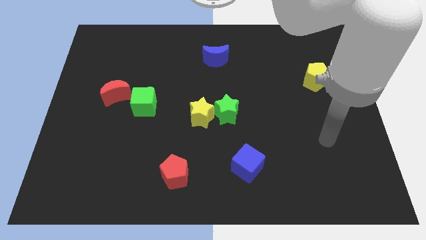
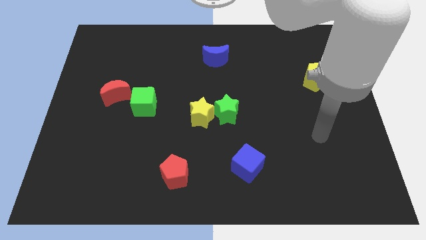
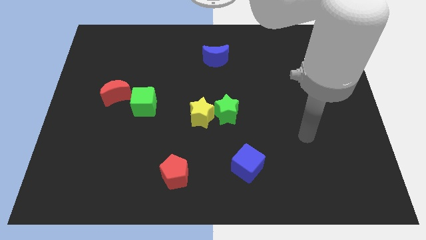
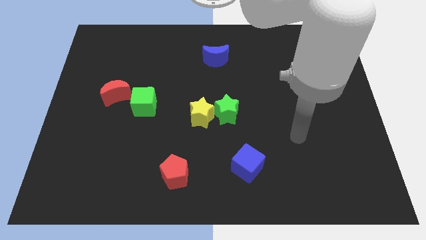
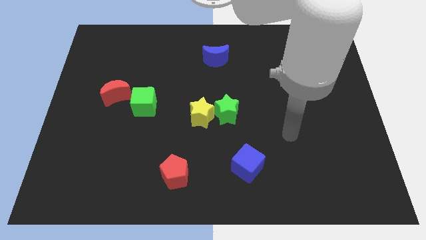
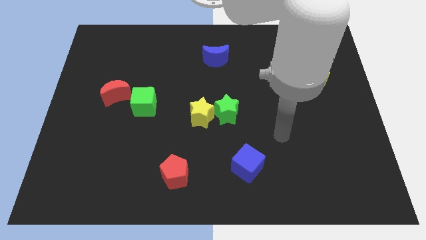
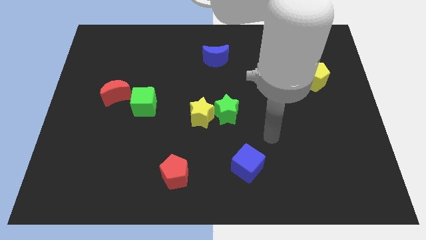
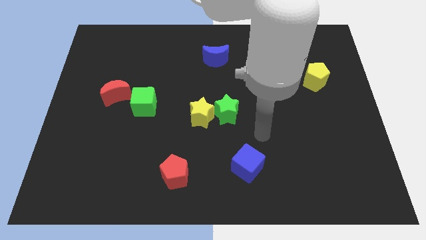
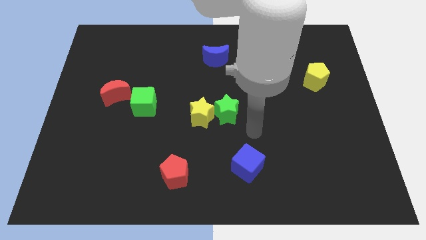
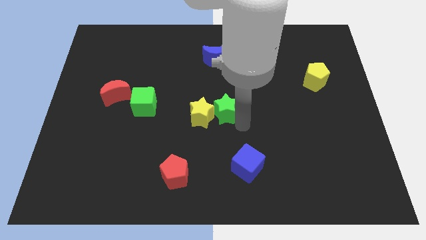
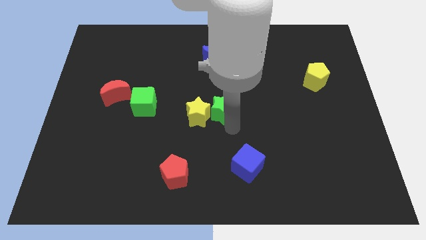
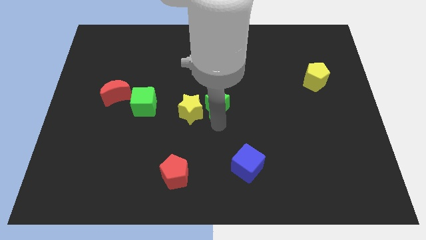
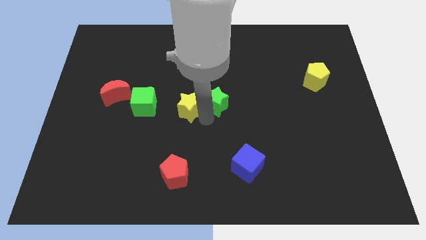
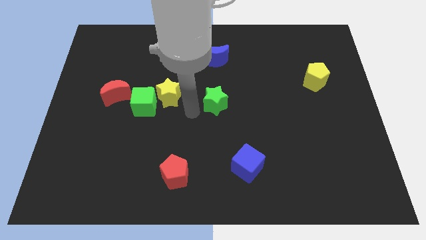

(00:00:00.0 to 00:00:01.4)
separate the green star from the yellow star

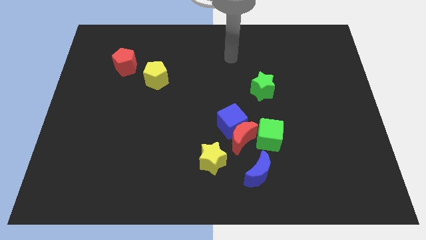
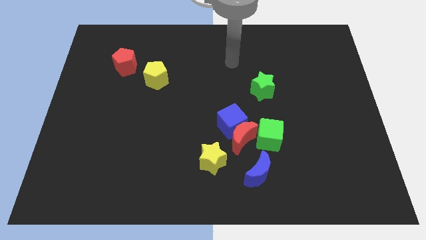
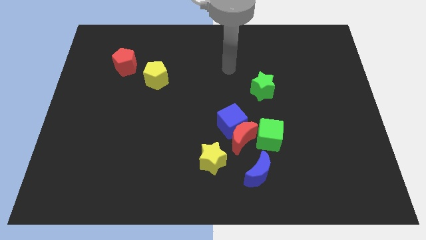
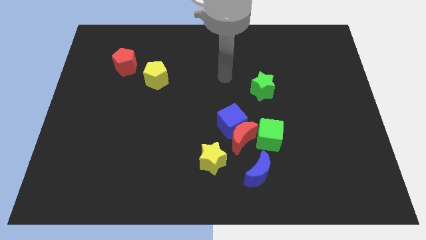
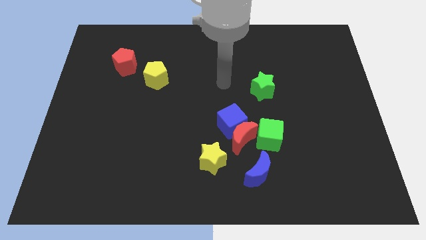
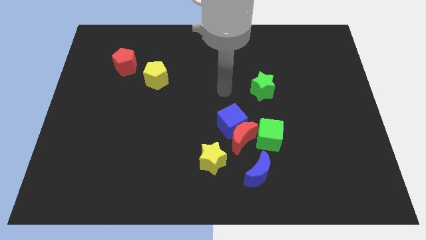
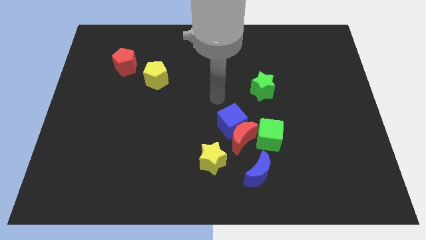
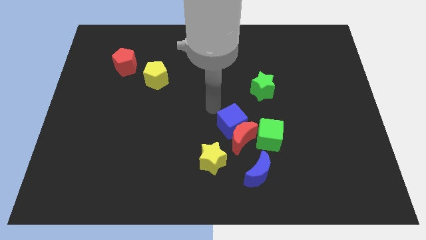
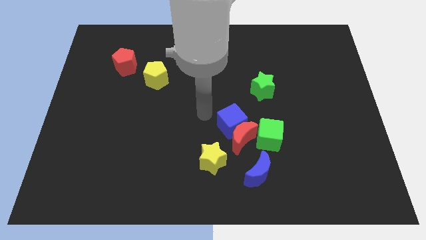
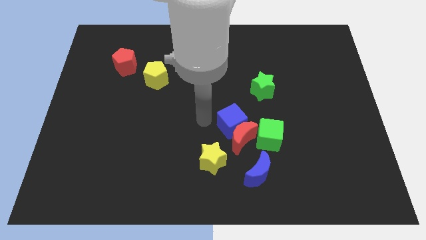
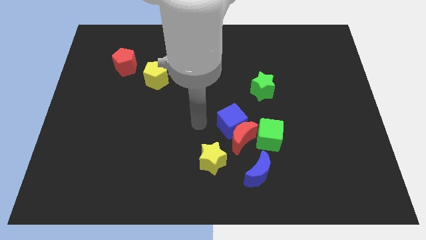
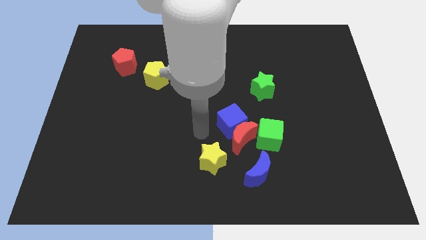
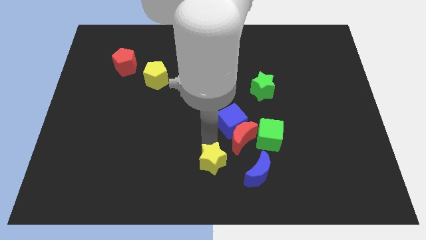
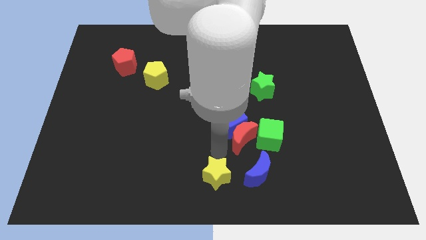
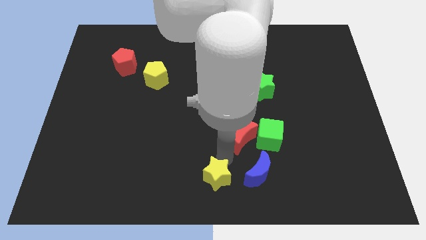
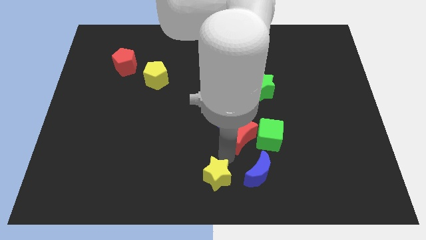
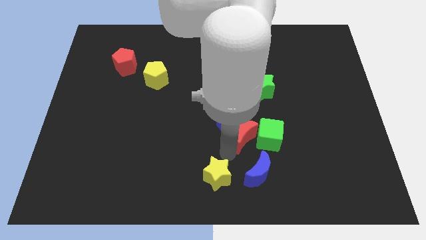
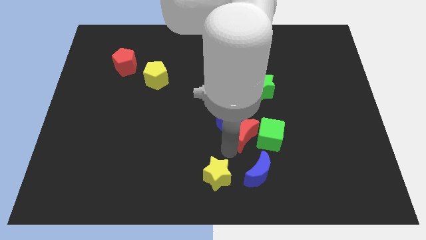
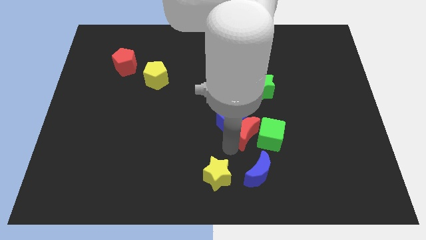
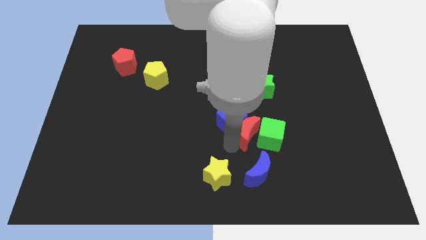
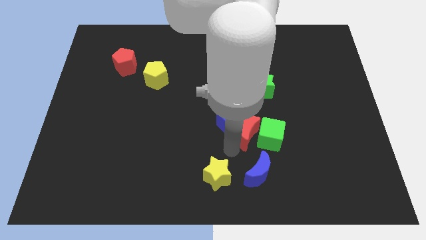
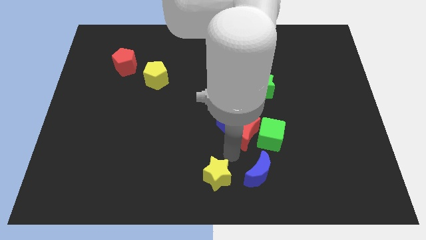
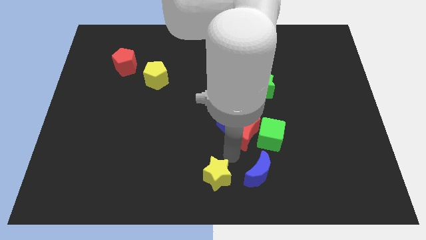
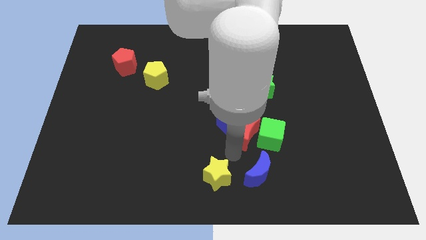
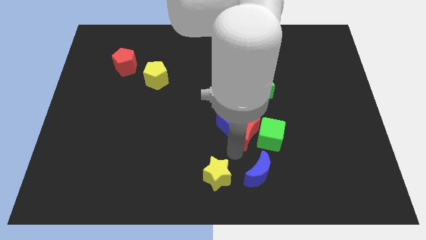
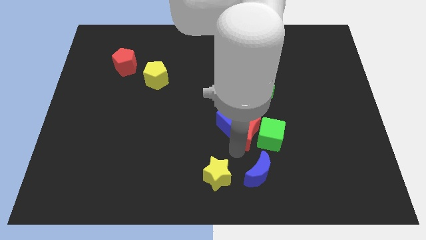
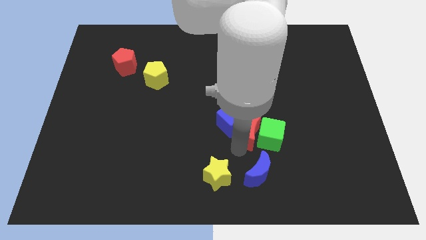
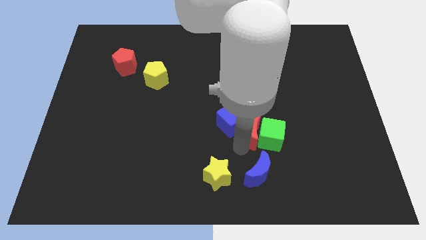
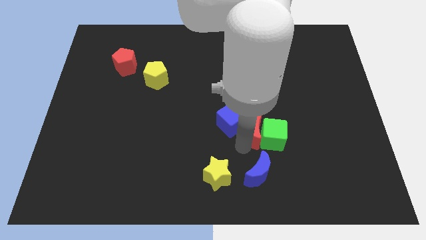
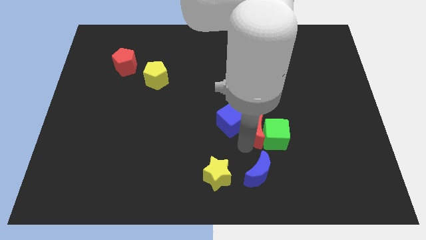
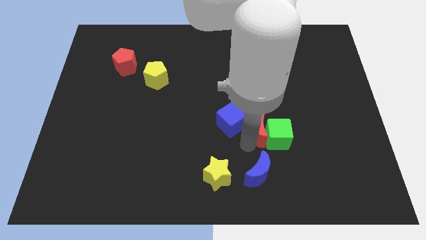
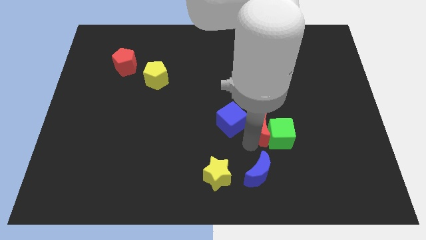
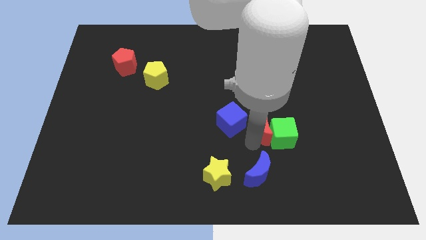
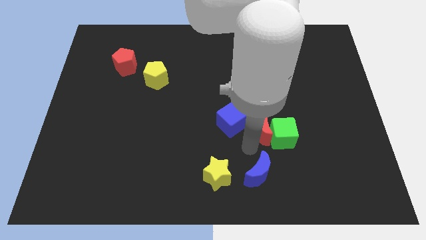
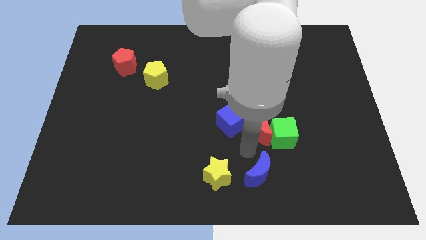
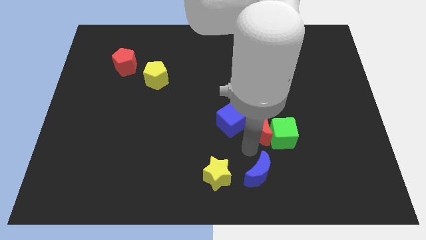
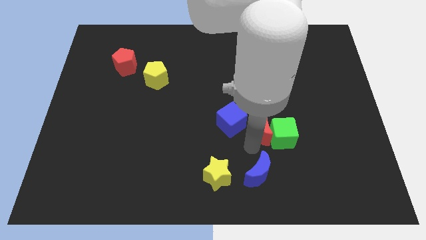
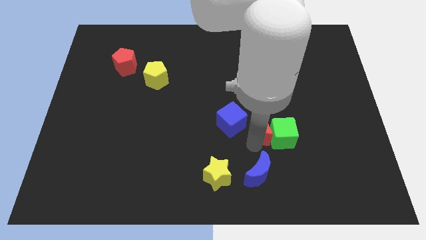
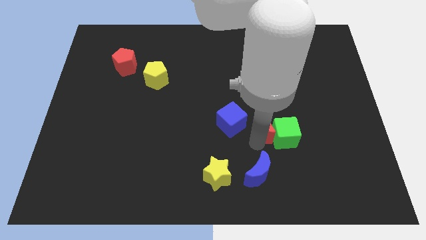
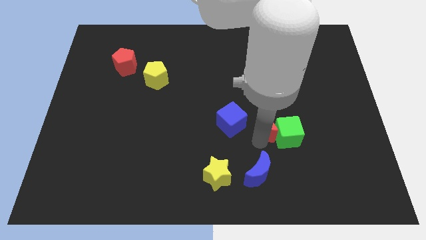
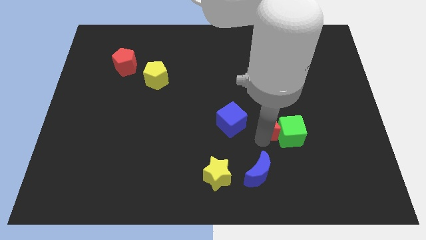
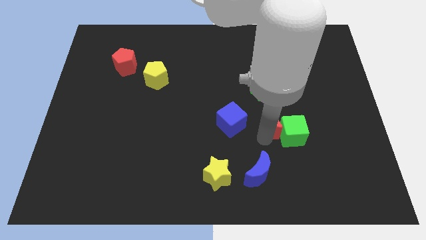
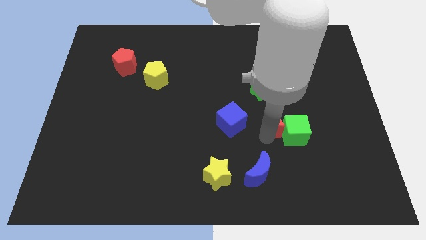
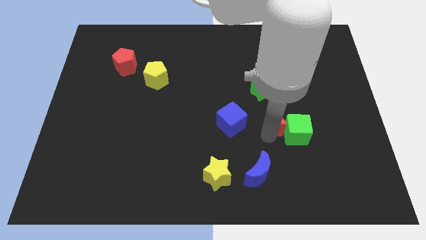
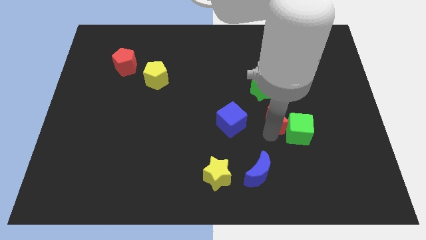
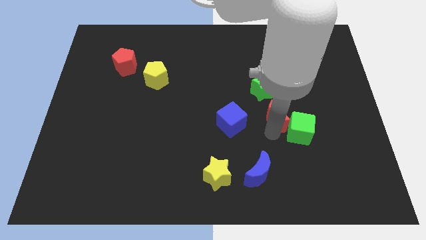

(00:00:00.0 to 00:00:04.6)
pull the red moon apart from the group

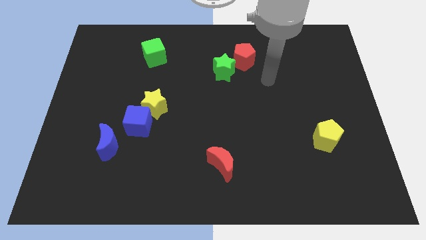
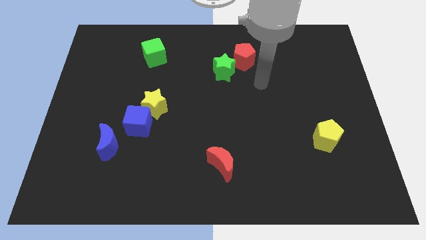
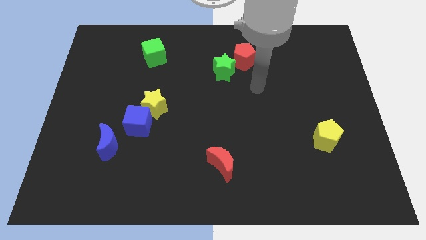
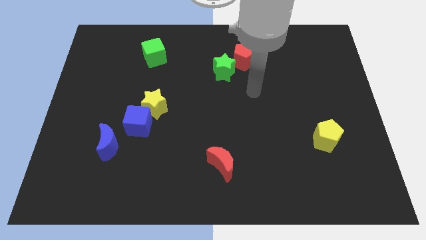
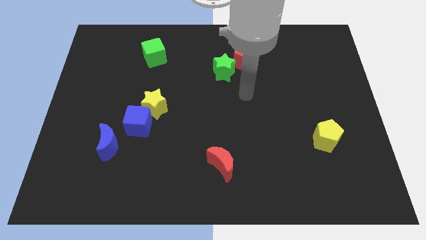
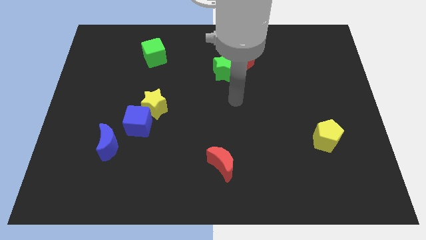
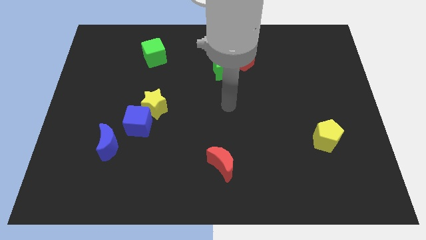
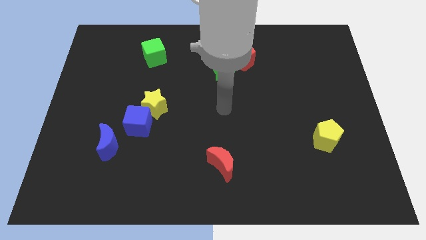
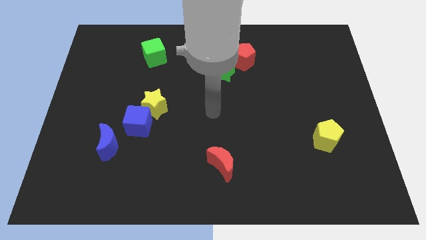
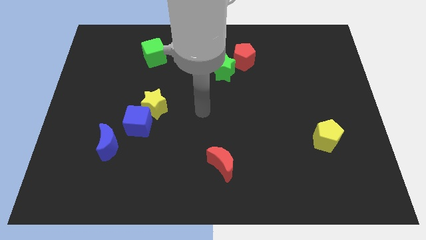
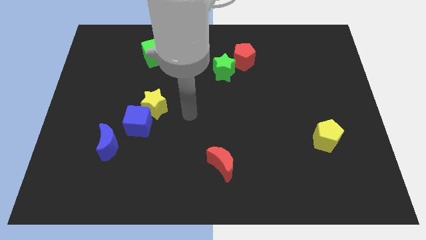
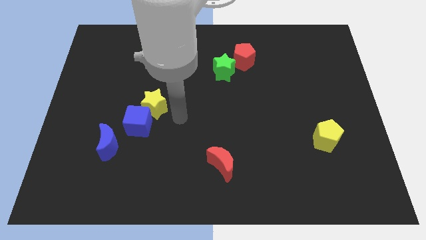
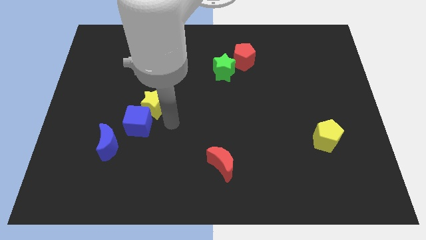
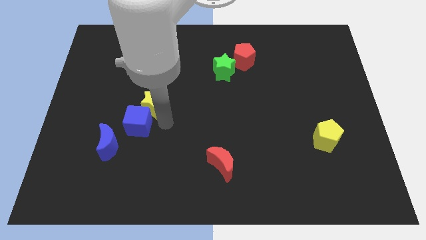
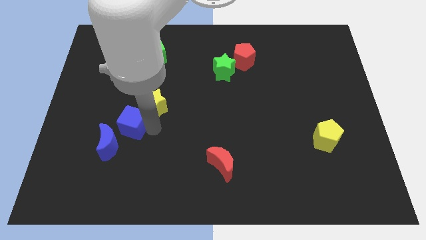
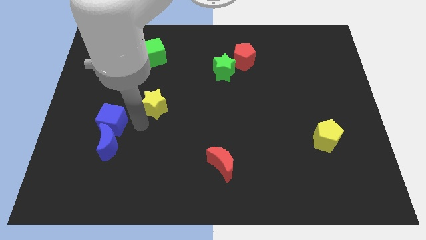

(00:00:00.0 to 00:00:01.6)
move the yellow star away from the blue cube

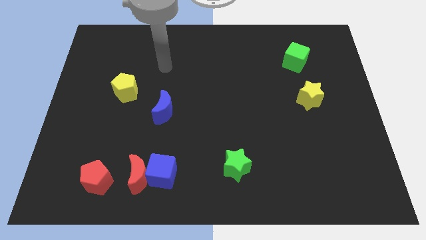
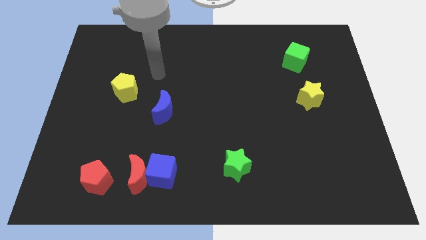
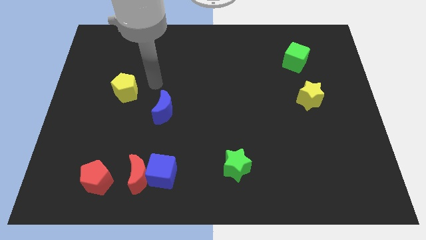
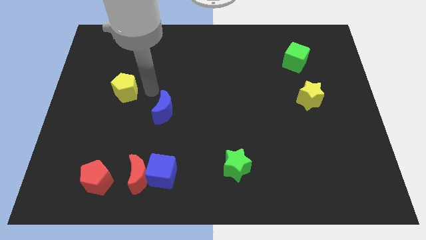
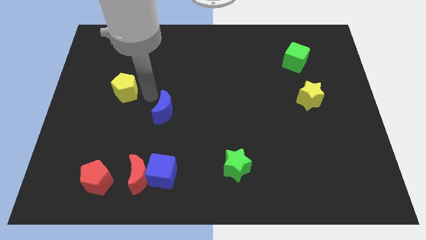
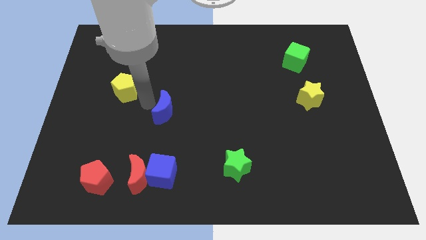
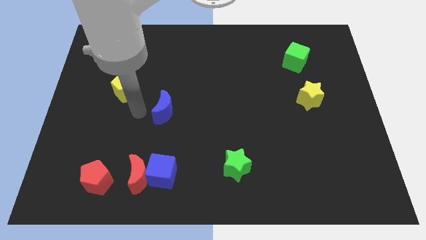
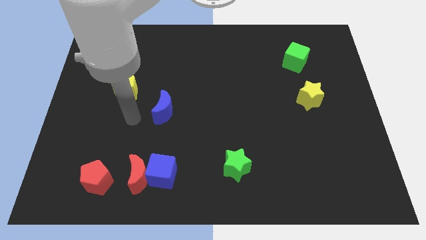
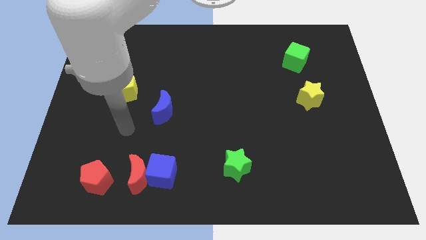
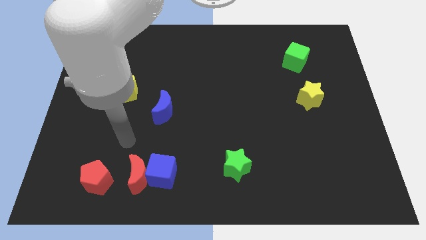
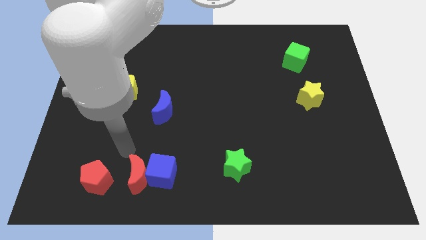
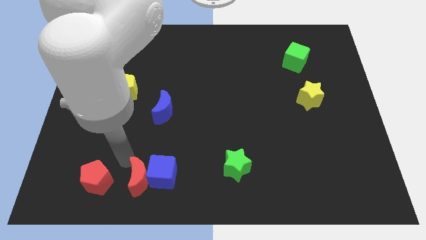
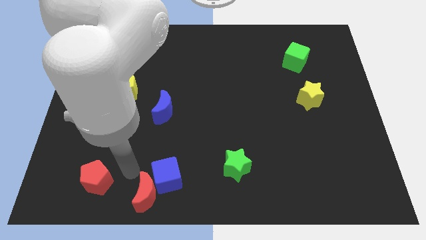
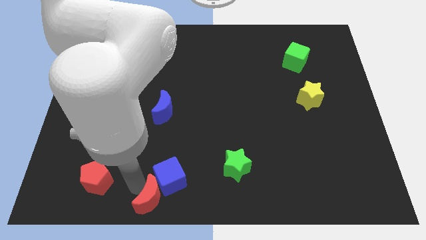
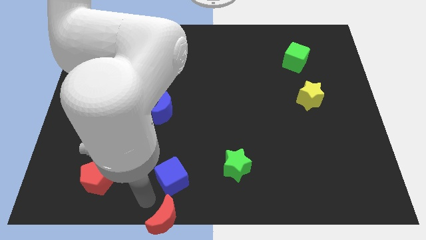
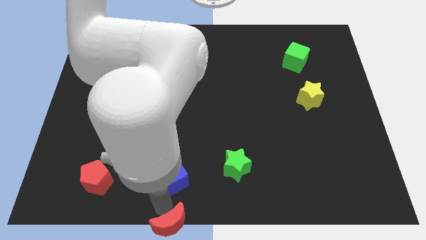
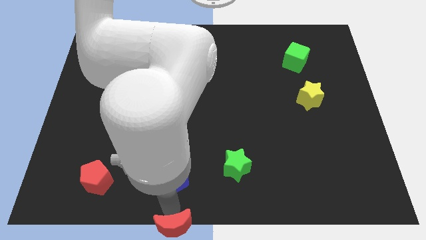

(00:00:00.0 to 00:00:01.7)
move the blue cube away from the red moon

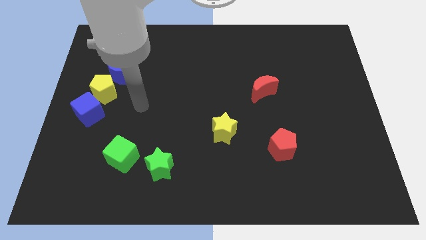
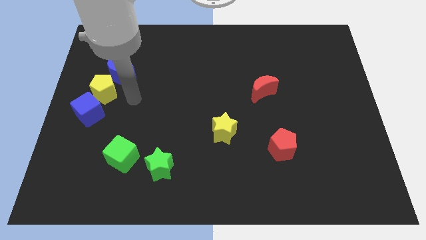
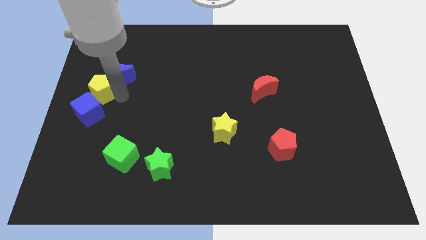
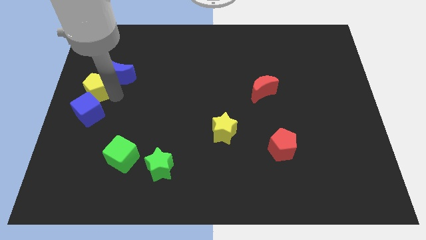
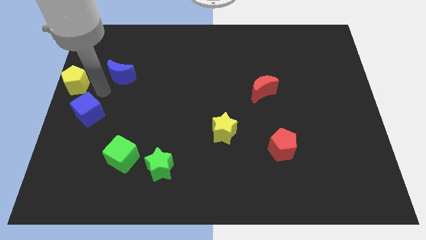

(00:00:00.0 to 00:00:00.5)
move the blue moon away from the yellow pentagon
